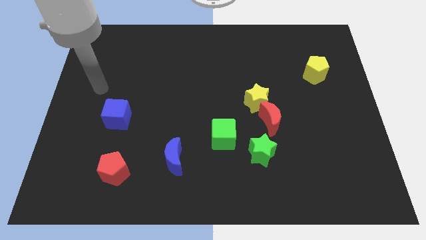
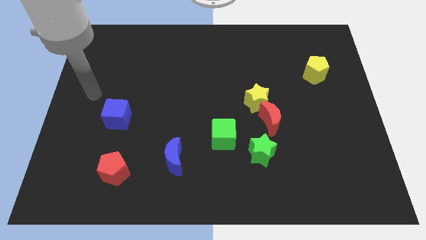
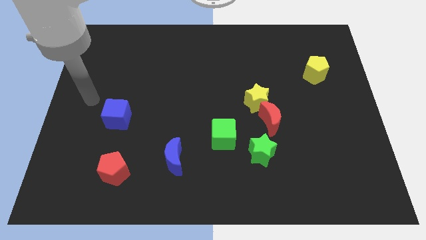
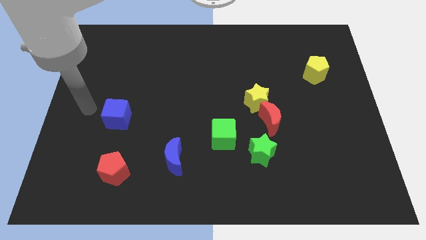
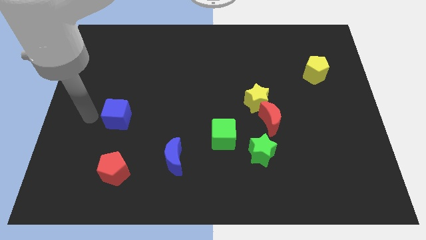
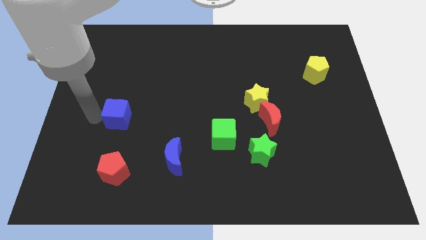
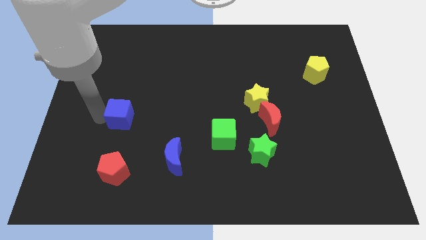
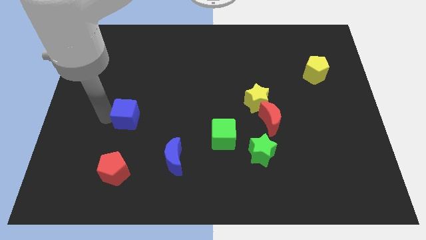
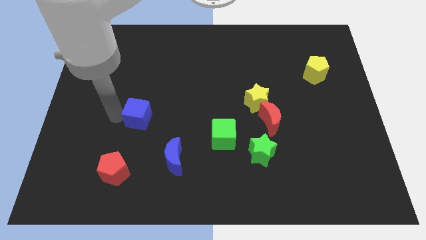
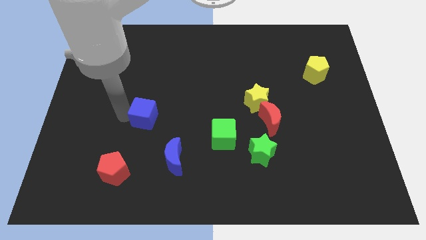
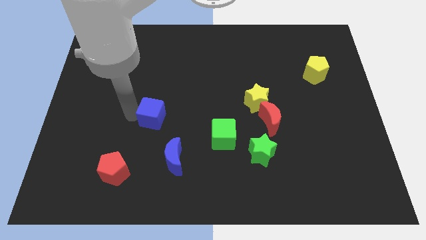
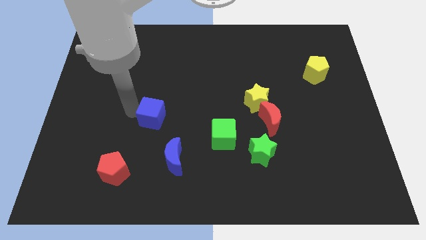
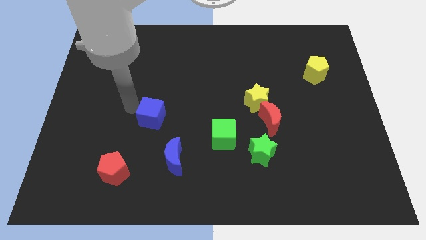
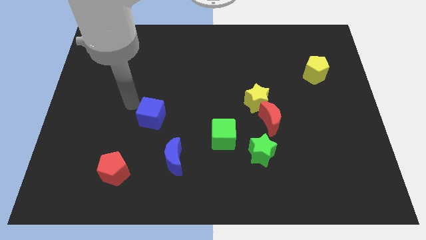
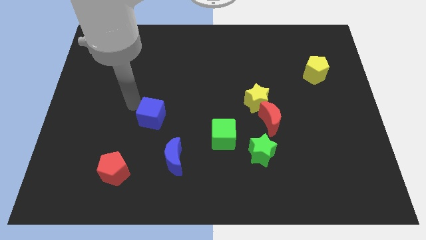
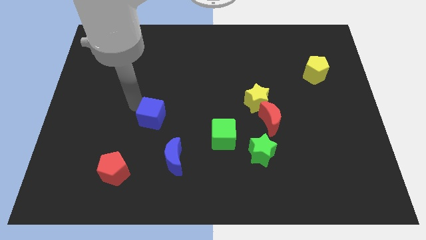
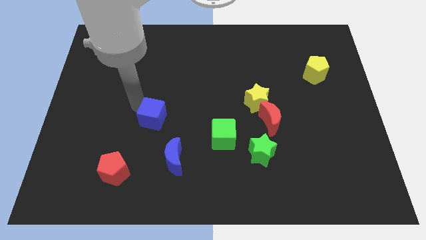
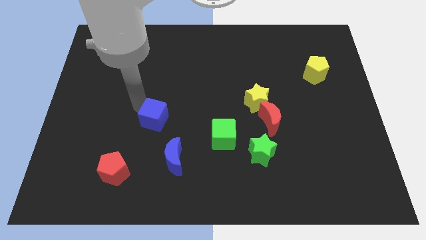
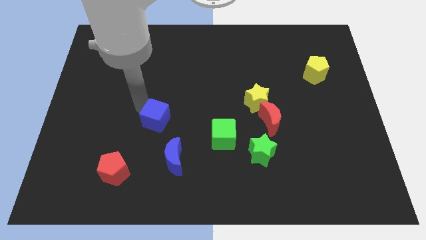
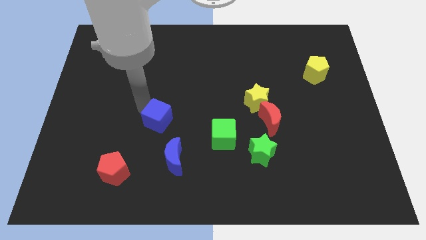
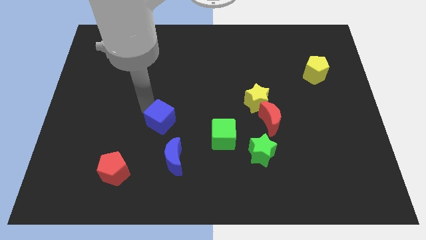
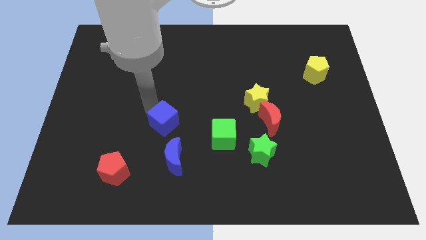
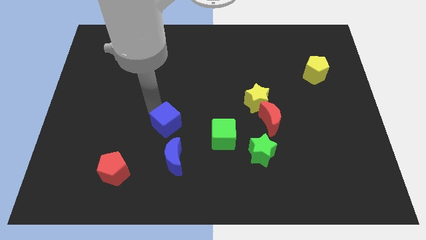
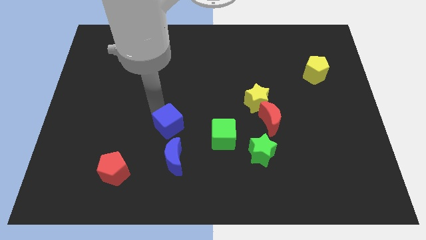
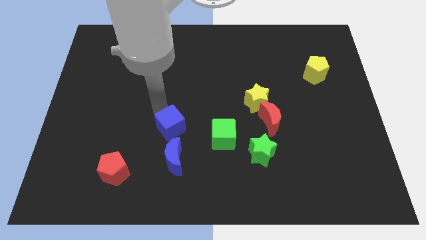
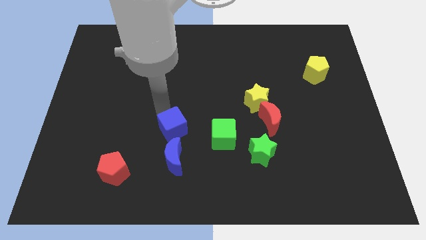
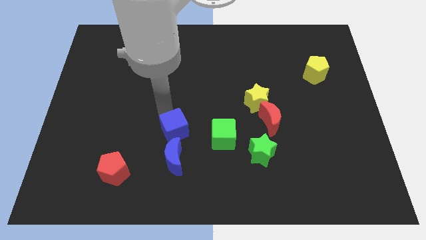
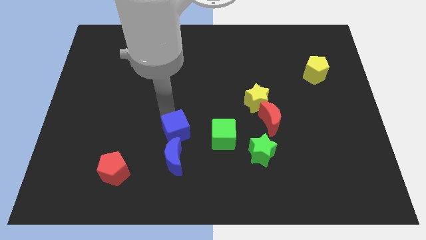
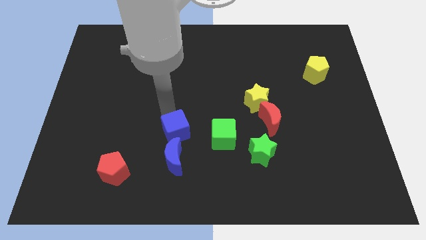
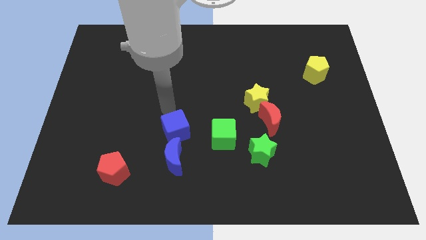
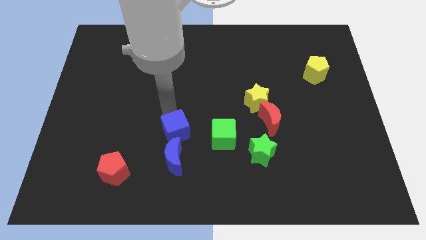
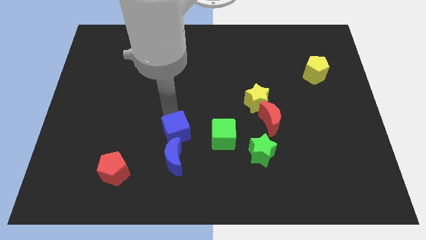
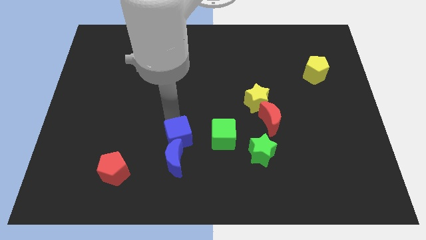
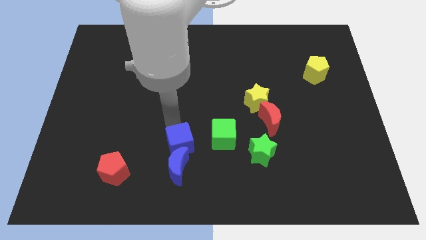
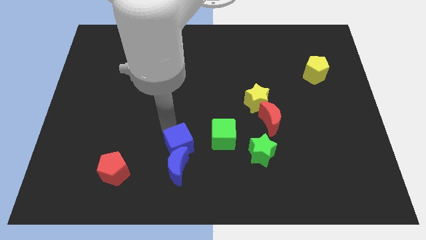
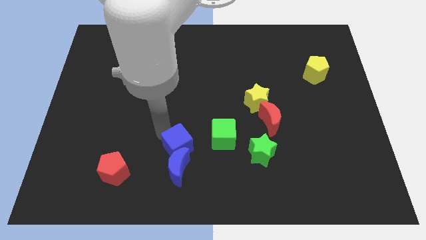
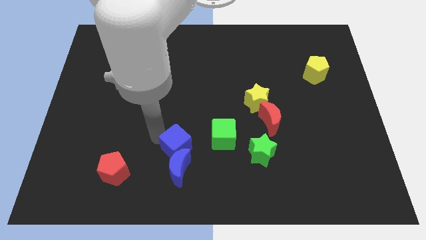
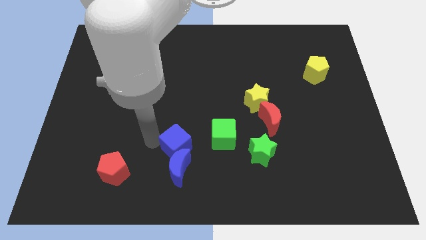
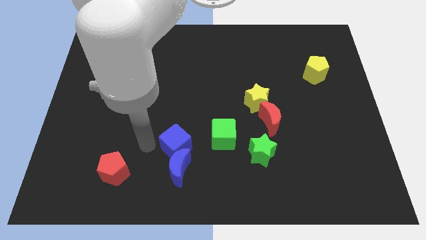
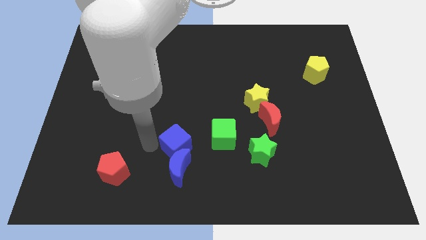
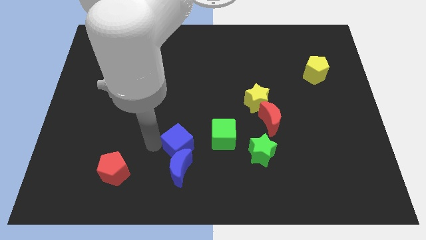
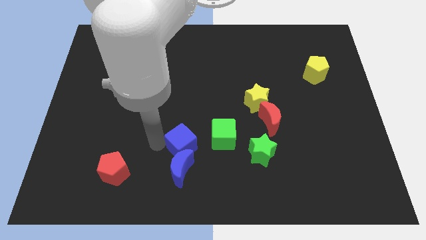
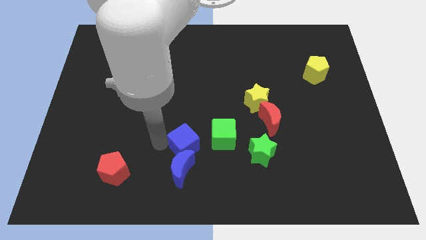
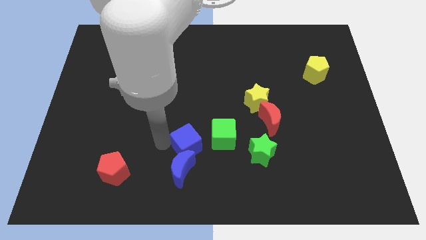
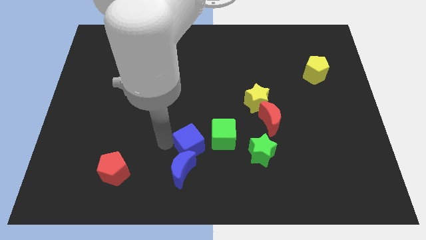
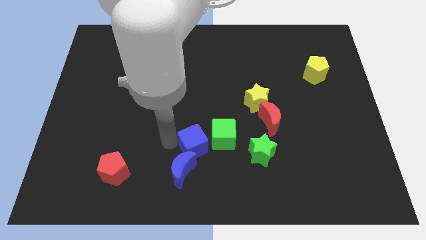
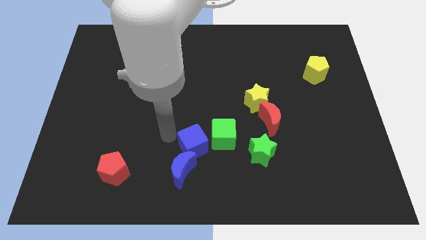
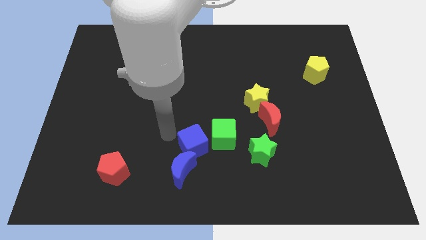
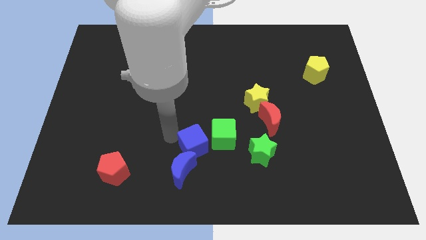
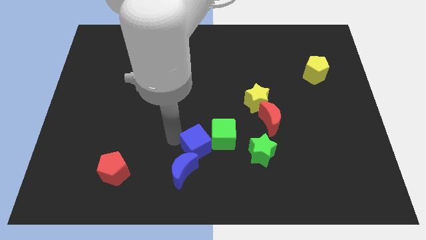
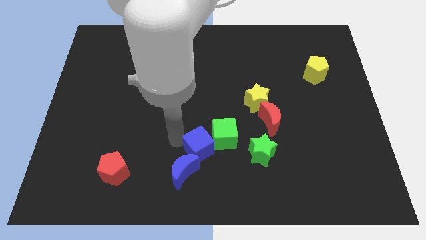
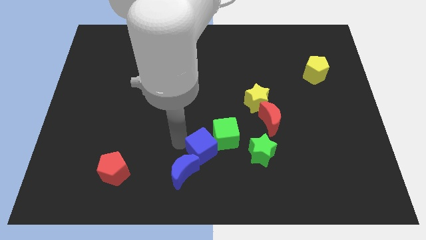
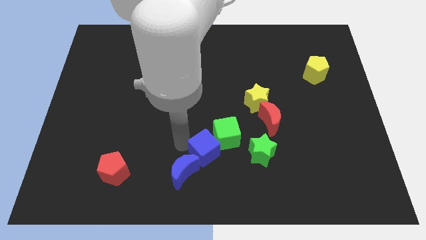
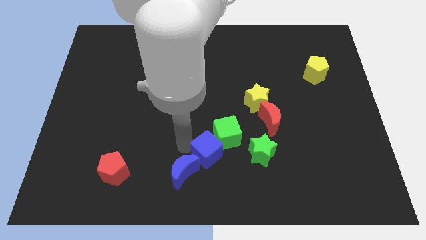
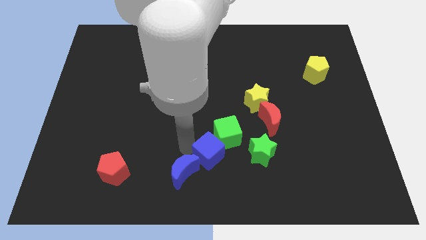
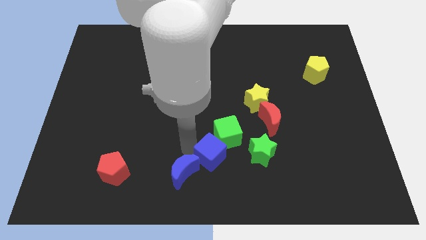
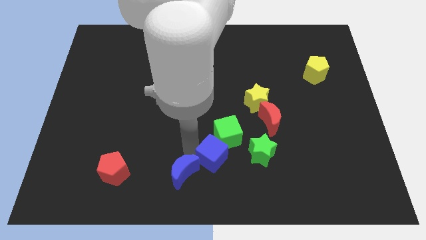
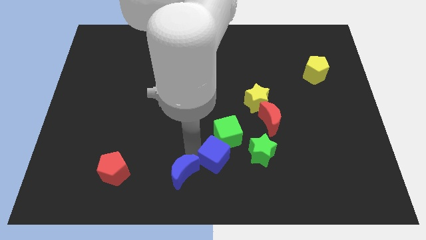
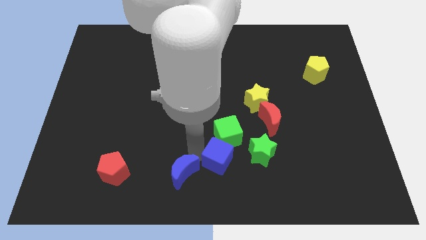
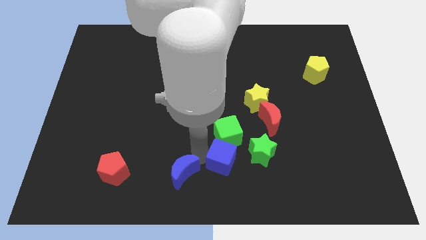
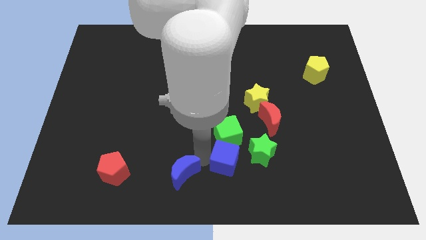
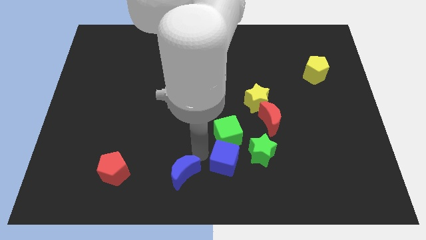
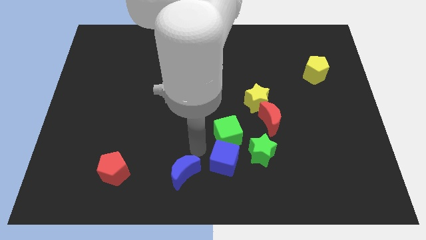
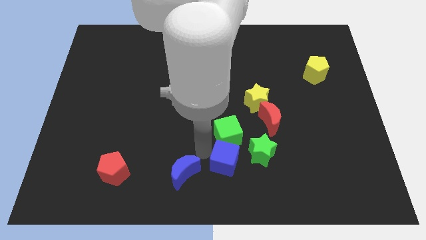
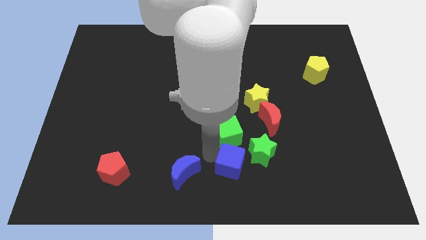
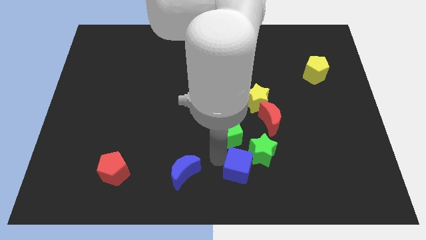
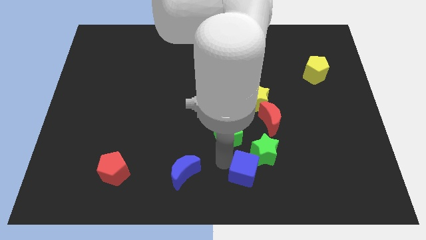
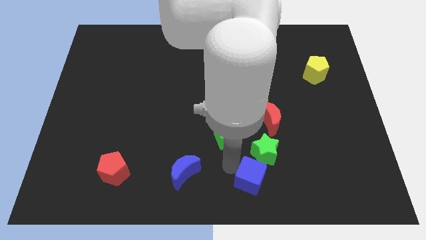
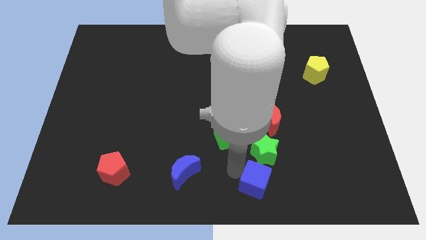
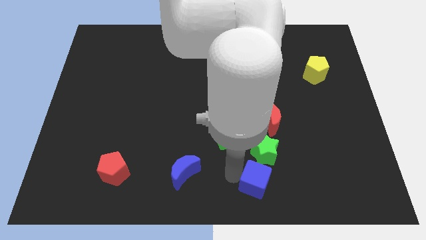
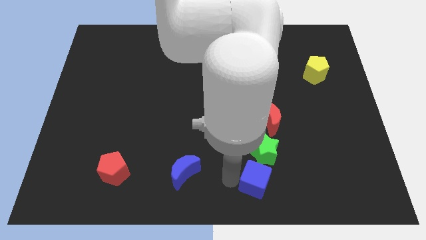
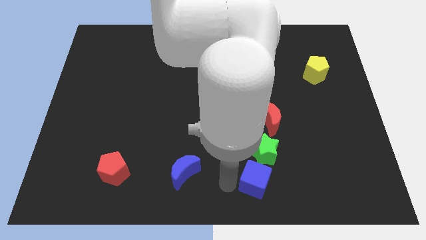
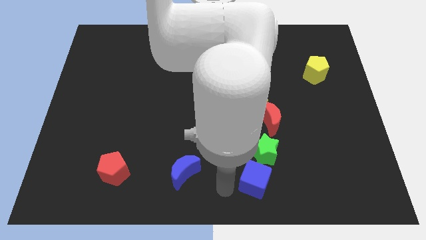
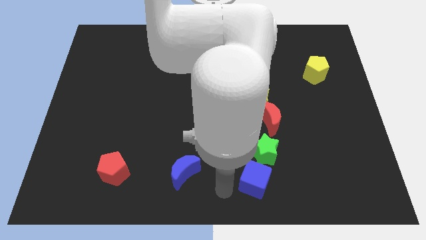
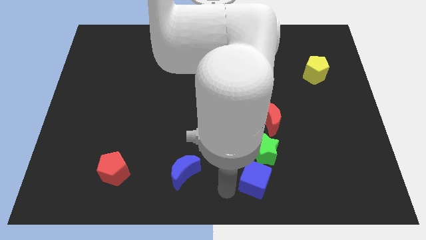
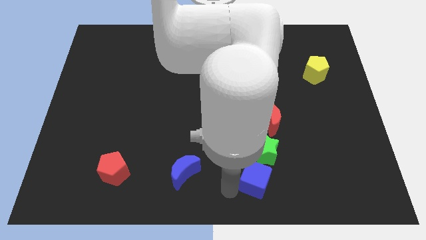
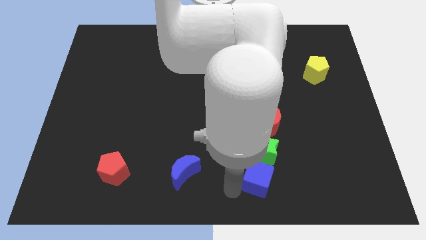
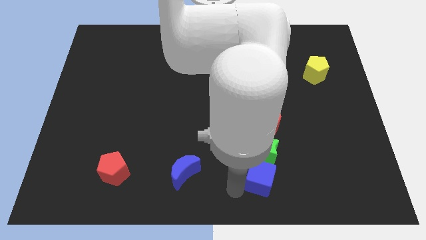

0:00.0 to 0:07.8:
slide the blue cube to the bottom of the red moon
